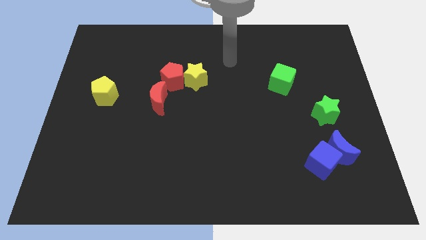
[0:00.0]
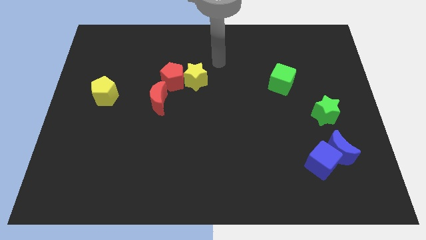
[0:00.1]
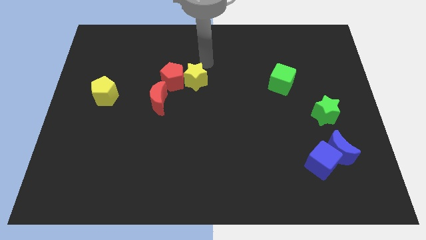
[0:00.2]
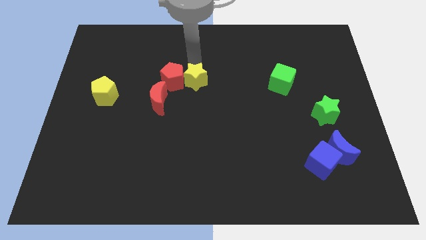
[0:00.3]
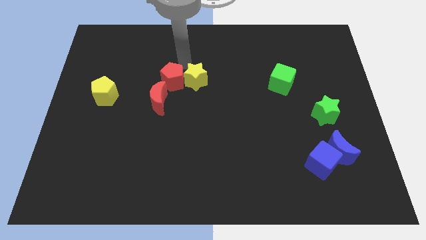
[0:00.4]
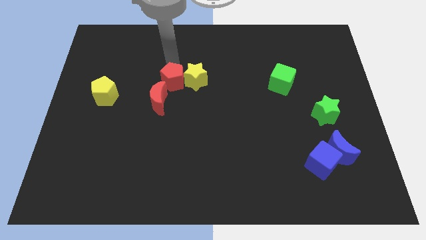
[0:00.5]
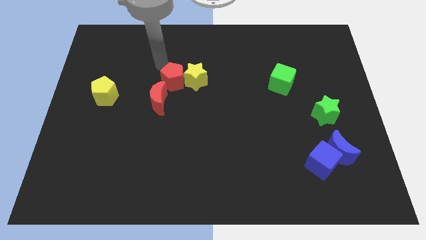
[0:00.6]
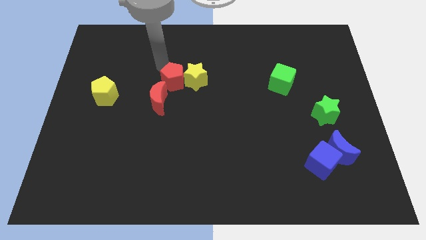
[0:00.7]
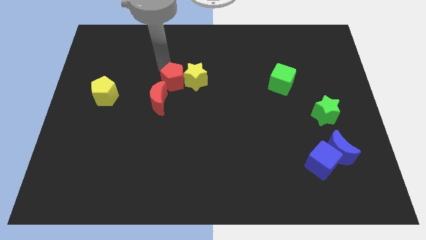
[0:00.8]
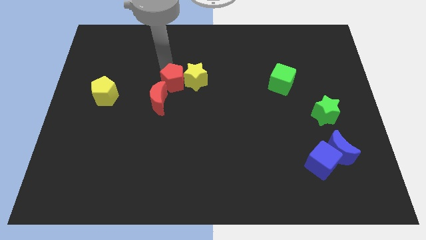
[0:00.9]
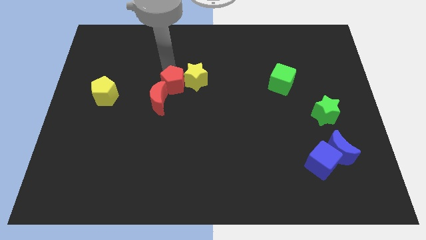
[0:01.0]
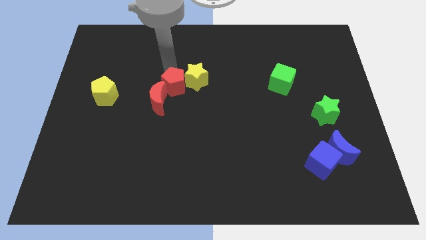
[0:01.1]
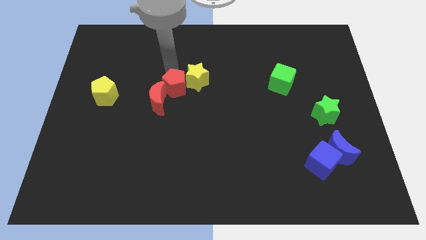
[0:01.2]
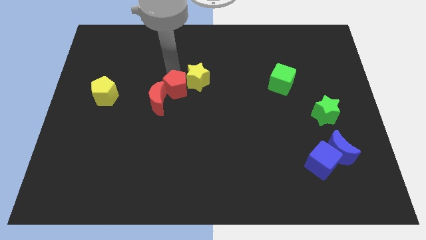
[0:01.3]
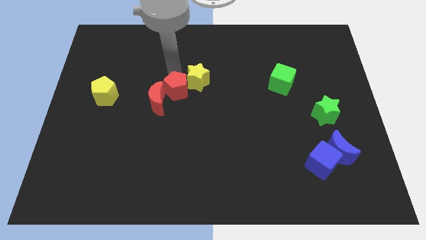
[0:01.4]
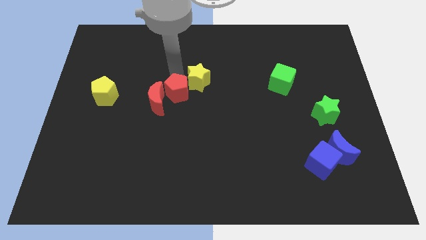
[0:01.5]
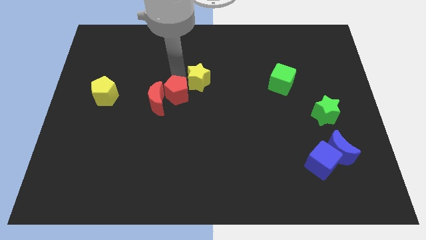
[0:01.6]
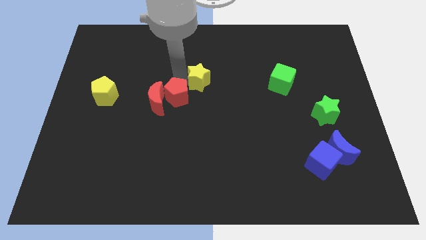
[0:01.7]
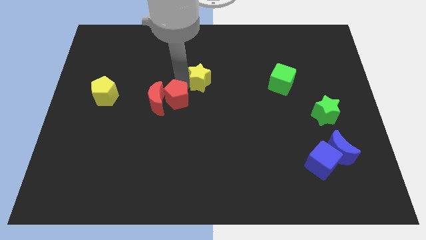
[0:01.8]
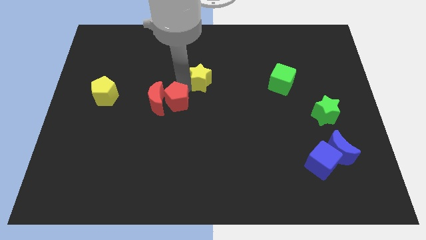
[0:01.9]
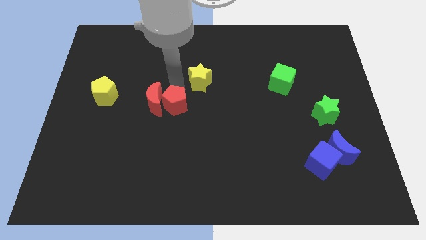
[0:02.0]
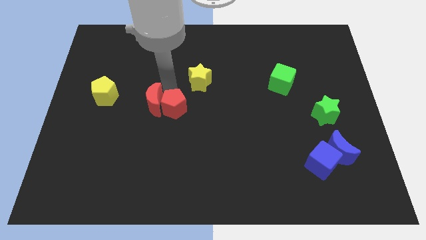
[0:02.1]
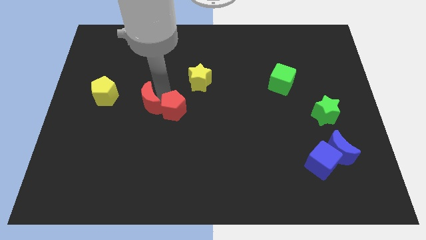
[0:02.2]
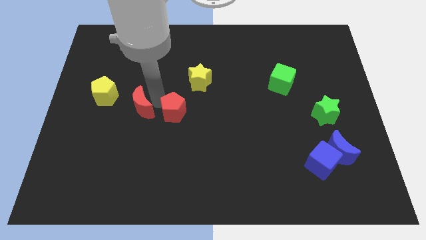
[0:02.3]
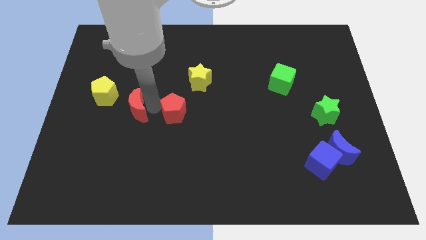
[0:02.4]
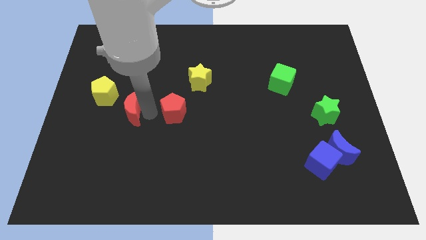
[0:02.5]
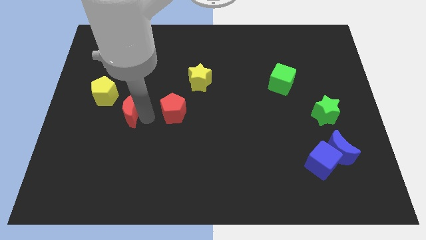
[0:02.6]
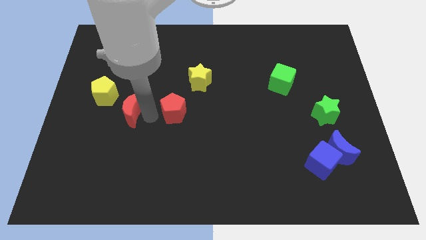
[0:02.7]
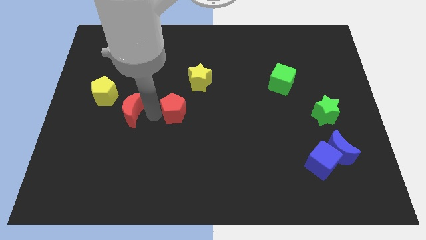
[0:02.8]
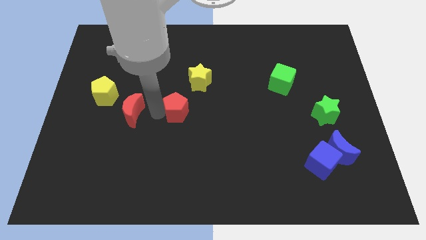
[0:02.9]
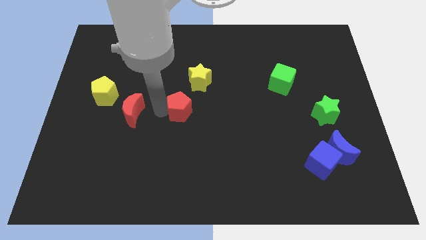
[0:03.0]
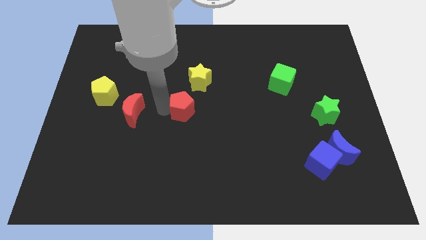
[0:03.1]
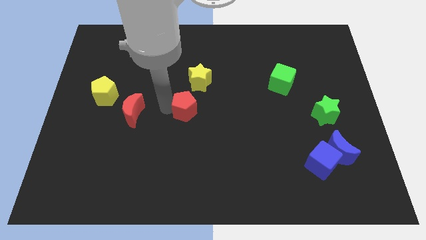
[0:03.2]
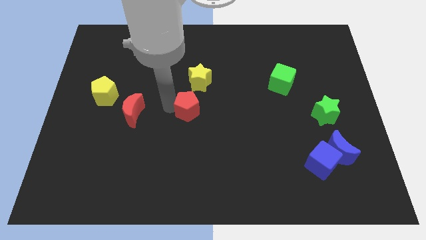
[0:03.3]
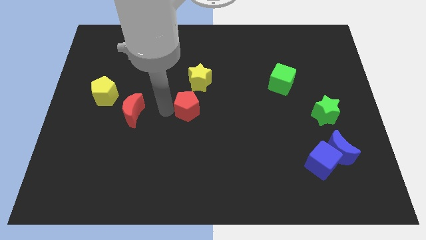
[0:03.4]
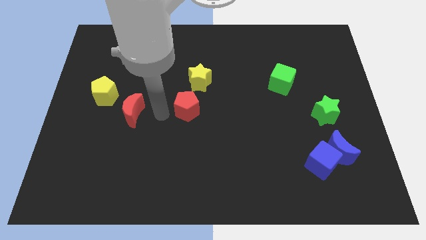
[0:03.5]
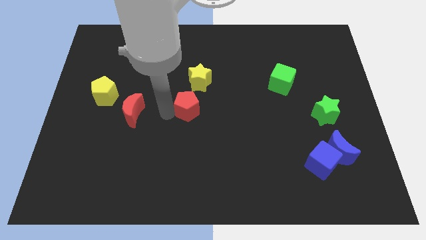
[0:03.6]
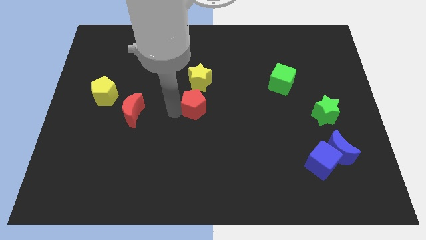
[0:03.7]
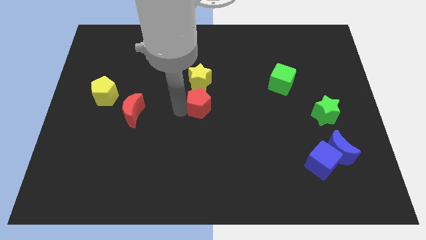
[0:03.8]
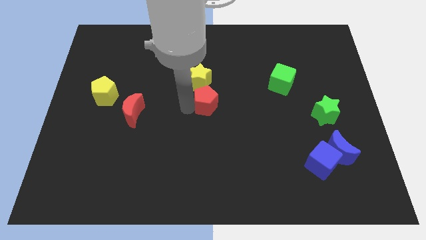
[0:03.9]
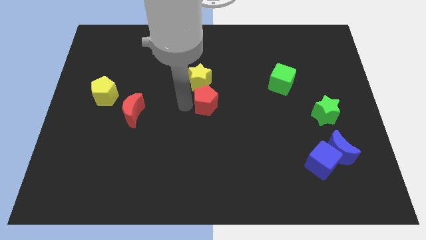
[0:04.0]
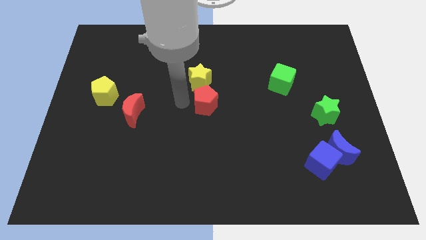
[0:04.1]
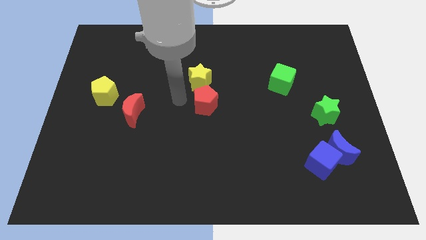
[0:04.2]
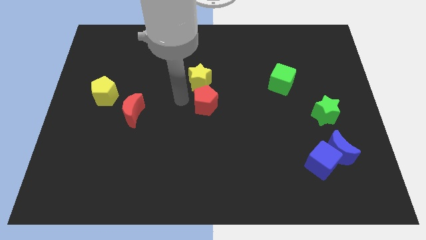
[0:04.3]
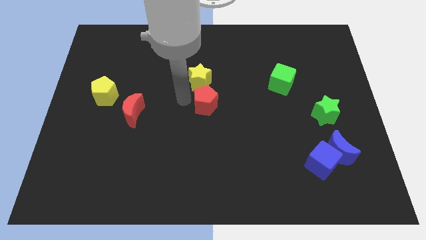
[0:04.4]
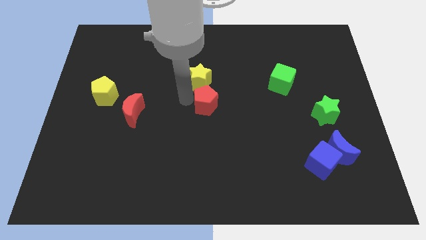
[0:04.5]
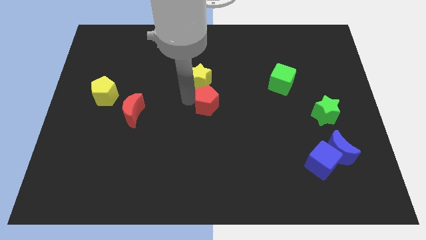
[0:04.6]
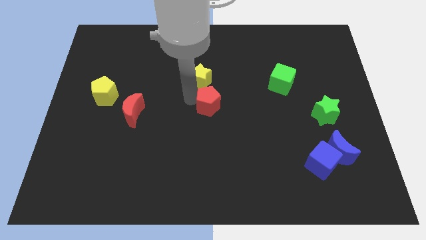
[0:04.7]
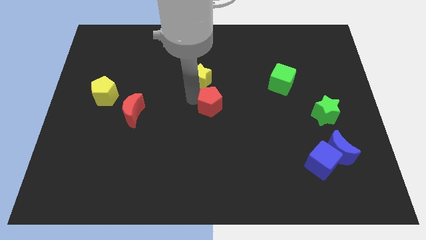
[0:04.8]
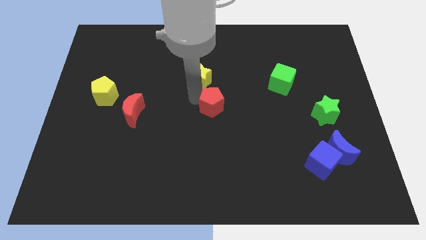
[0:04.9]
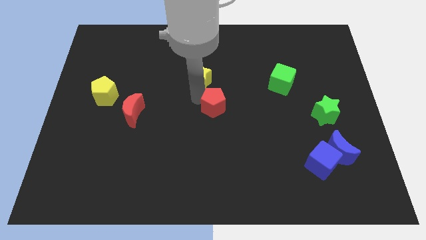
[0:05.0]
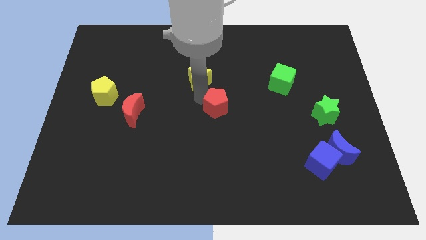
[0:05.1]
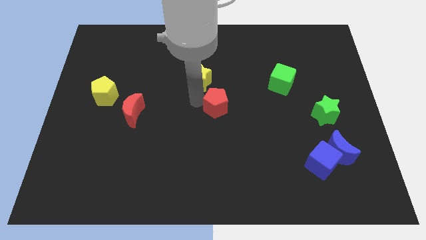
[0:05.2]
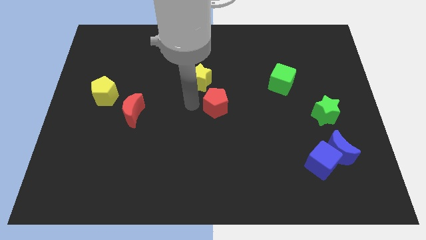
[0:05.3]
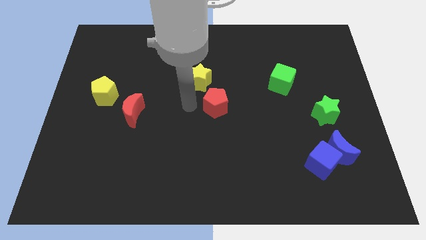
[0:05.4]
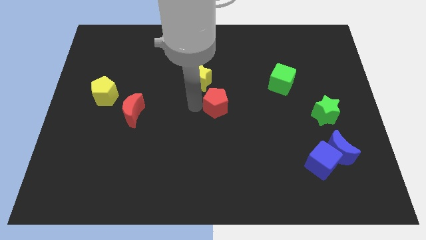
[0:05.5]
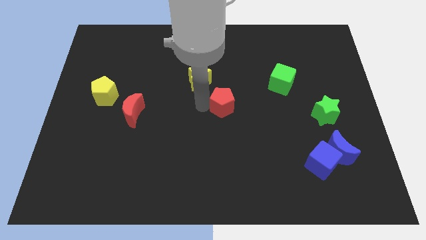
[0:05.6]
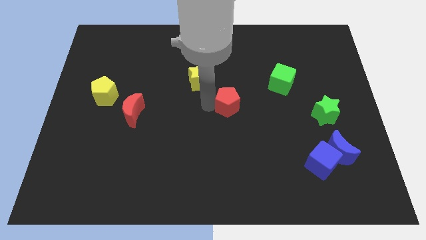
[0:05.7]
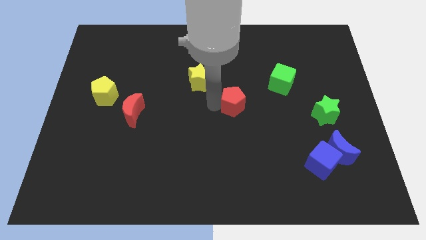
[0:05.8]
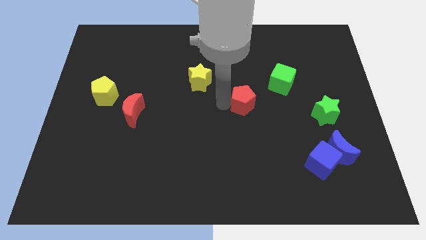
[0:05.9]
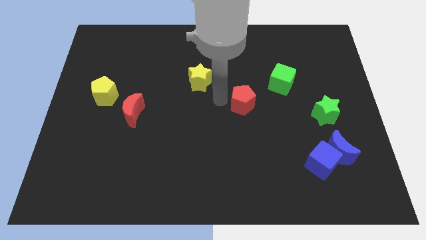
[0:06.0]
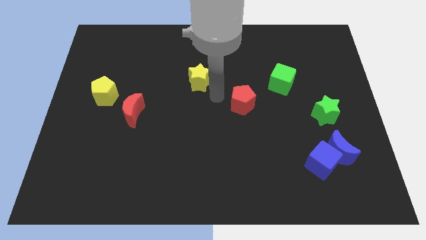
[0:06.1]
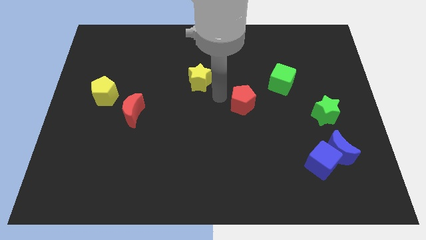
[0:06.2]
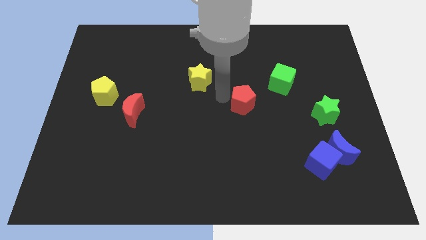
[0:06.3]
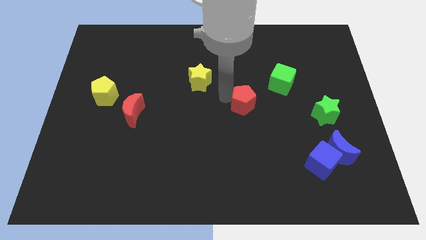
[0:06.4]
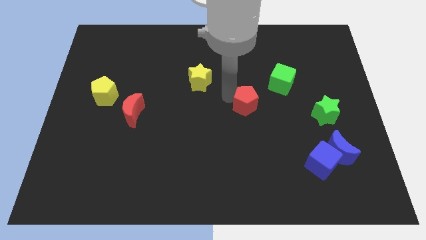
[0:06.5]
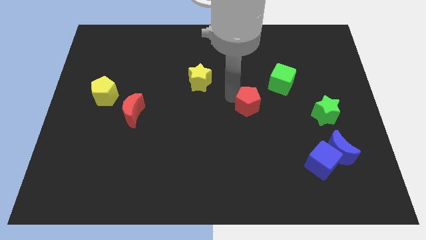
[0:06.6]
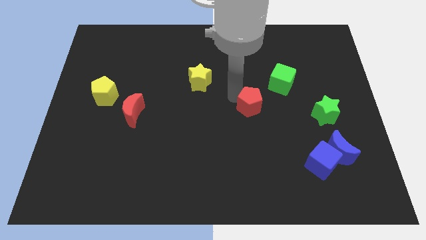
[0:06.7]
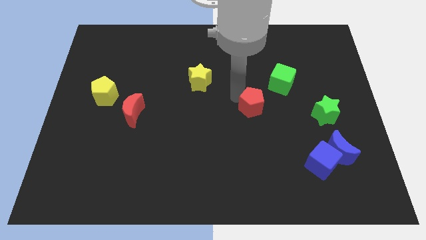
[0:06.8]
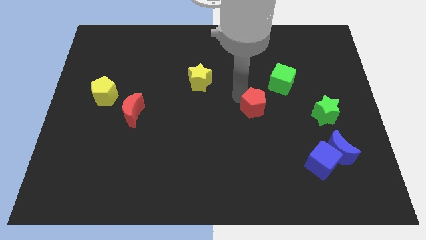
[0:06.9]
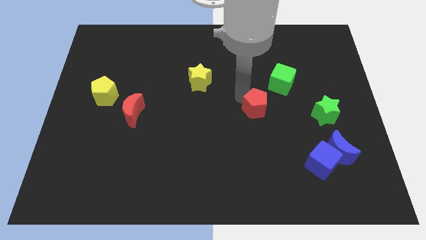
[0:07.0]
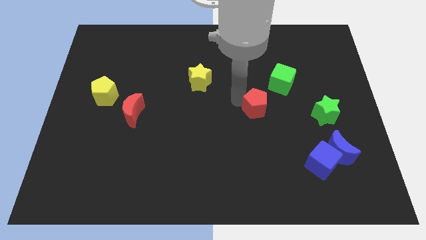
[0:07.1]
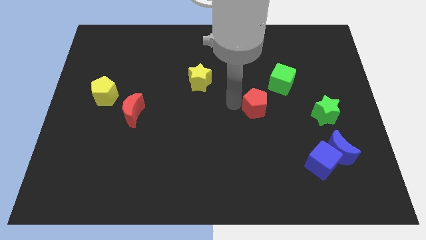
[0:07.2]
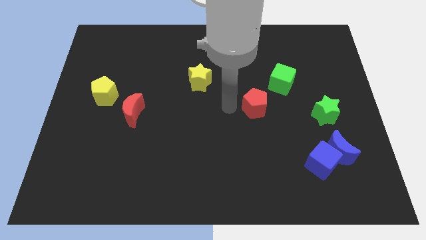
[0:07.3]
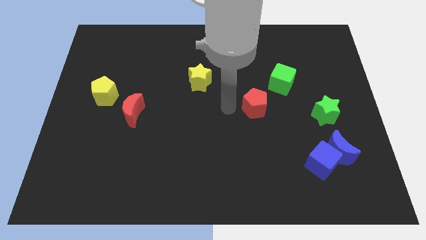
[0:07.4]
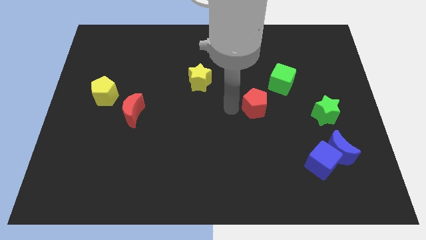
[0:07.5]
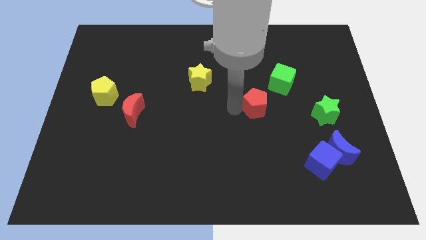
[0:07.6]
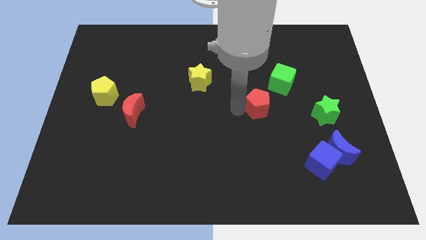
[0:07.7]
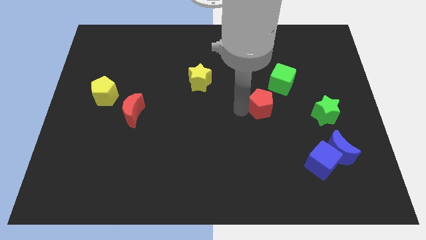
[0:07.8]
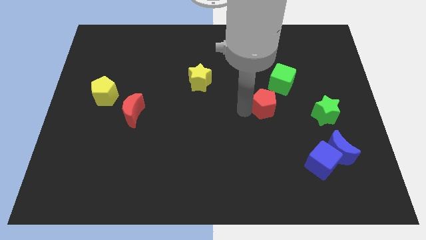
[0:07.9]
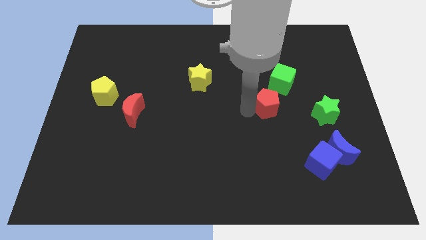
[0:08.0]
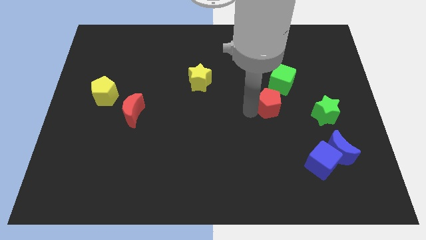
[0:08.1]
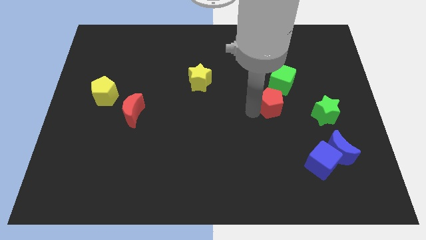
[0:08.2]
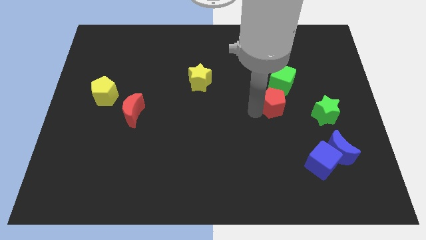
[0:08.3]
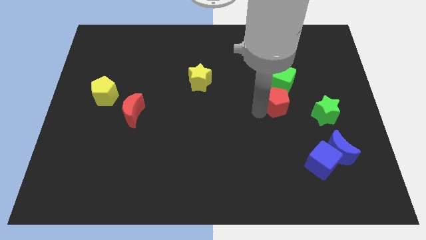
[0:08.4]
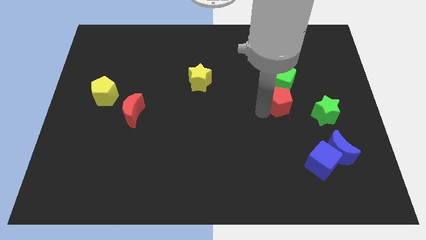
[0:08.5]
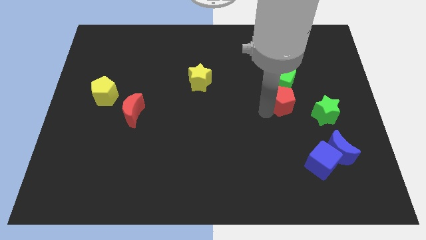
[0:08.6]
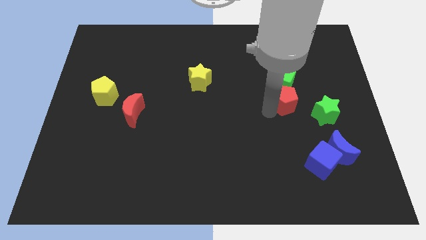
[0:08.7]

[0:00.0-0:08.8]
push the red pentagon to the bottom right side of the green cube
